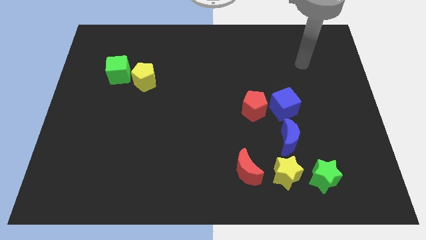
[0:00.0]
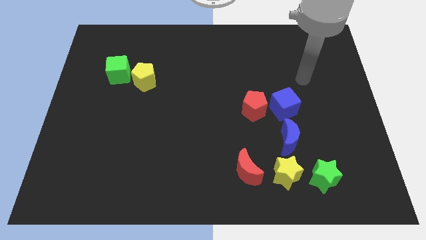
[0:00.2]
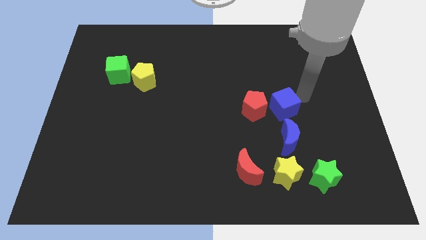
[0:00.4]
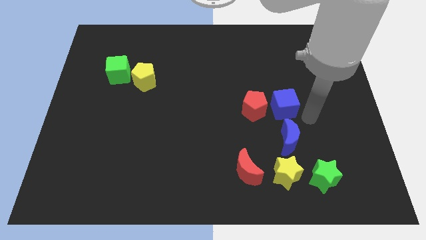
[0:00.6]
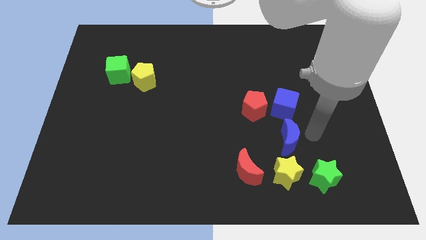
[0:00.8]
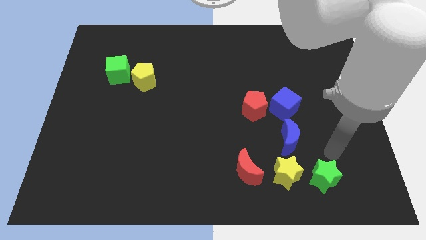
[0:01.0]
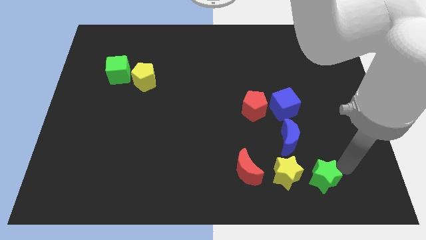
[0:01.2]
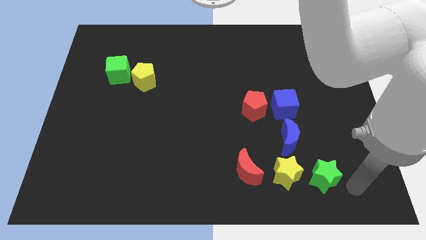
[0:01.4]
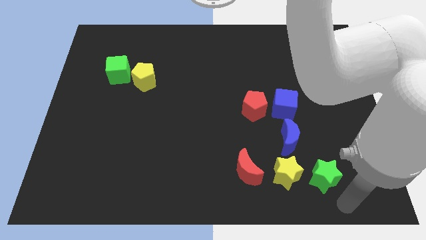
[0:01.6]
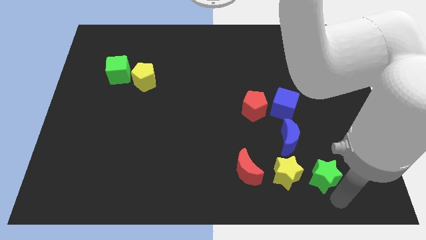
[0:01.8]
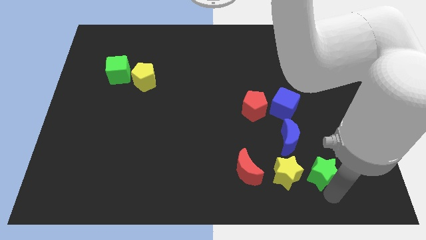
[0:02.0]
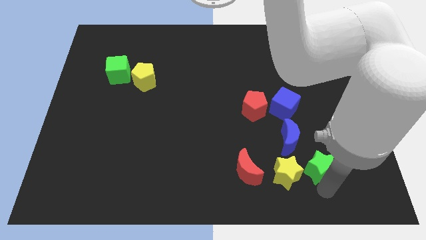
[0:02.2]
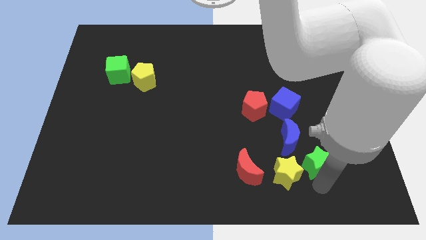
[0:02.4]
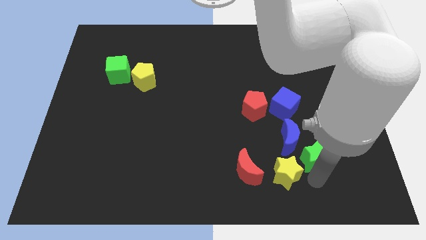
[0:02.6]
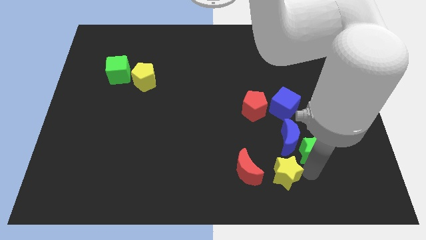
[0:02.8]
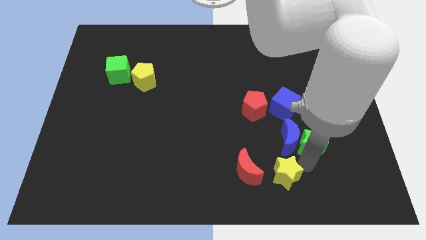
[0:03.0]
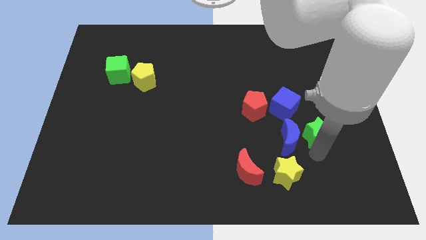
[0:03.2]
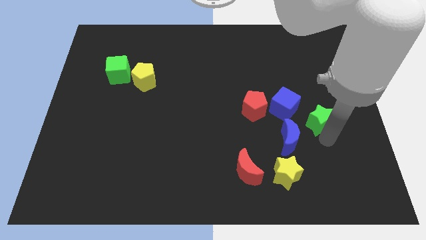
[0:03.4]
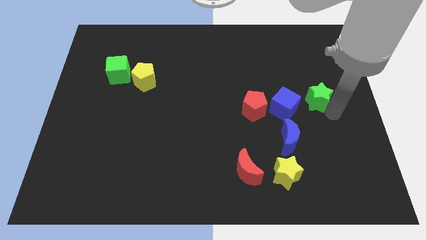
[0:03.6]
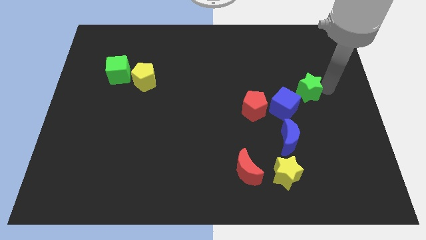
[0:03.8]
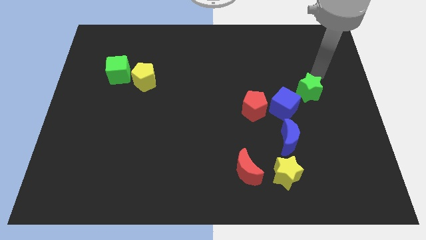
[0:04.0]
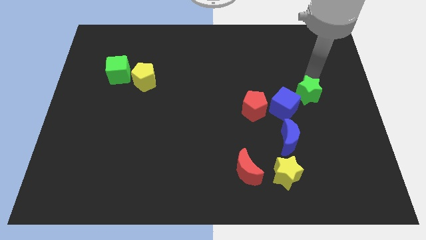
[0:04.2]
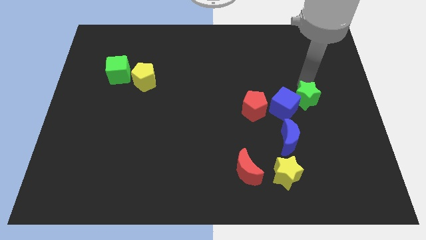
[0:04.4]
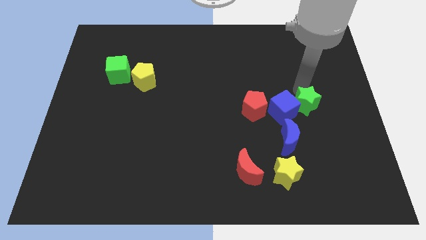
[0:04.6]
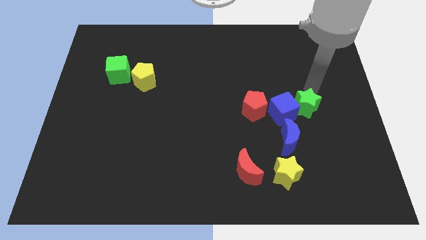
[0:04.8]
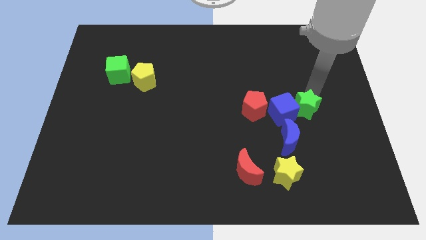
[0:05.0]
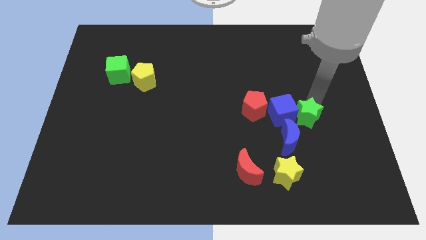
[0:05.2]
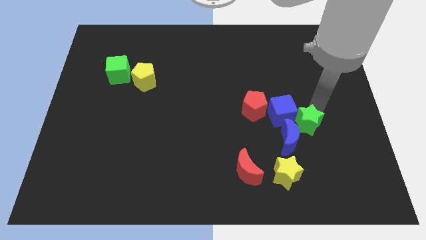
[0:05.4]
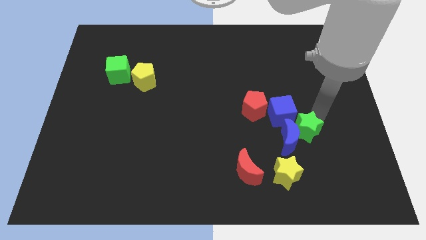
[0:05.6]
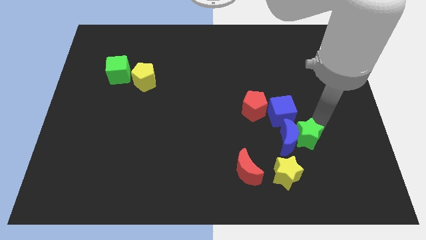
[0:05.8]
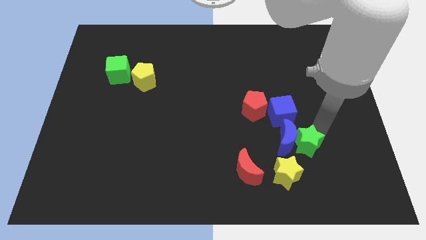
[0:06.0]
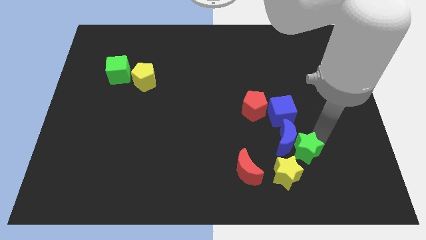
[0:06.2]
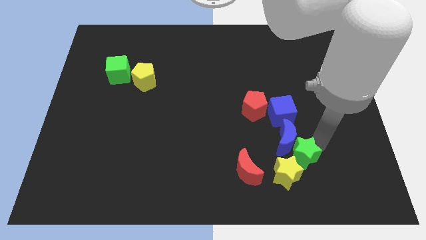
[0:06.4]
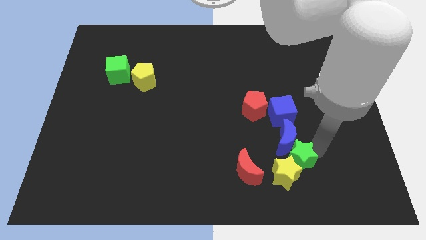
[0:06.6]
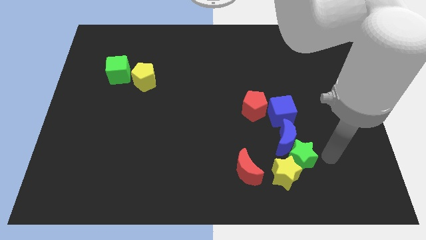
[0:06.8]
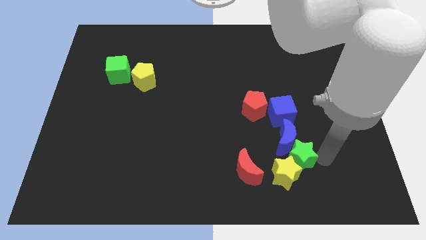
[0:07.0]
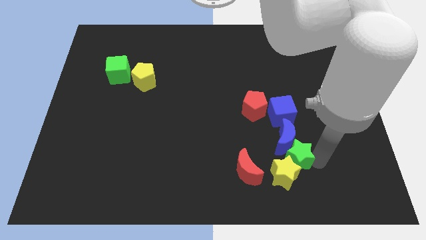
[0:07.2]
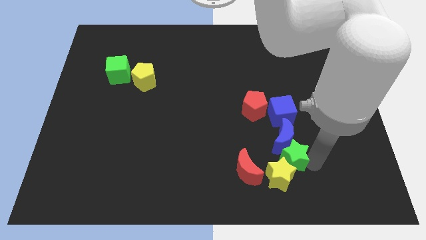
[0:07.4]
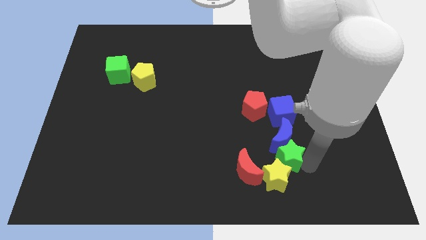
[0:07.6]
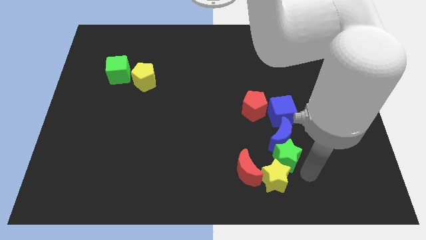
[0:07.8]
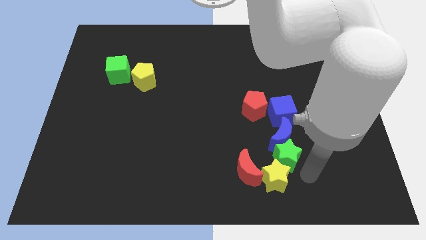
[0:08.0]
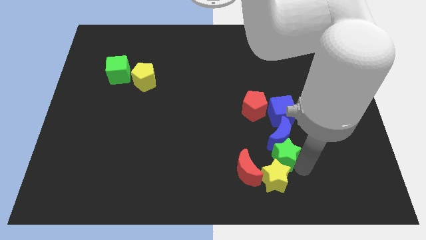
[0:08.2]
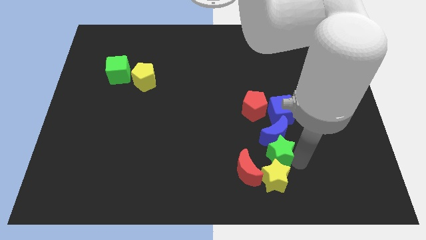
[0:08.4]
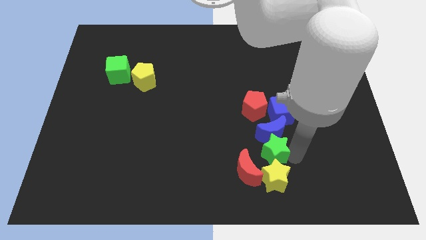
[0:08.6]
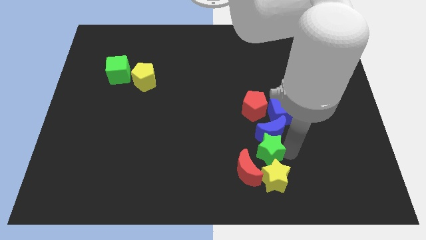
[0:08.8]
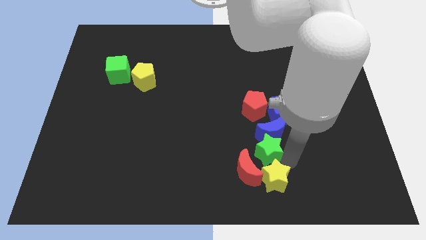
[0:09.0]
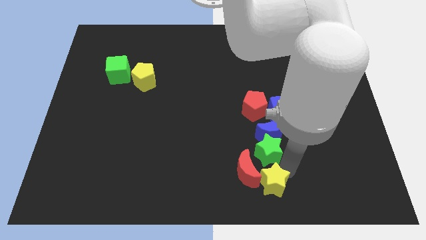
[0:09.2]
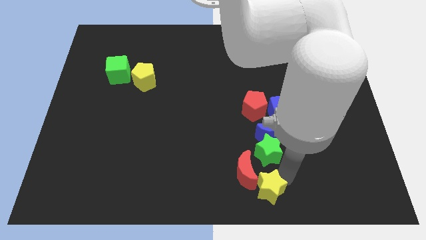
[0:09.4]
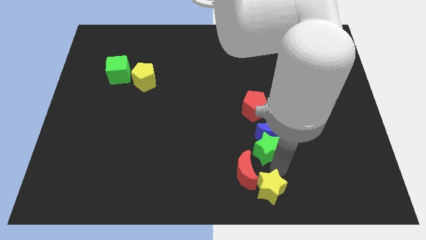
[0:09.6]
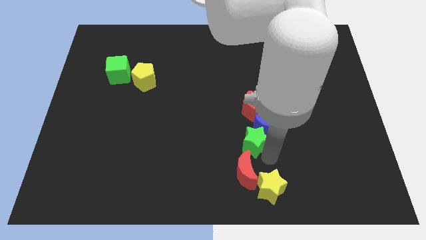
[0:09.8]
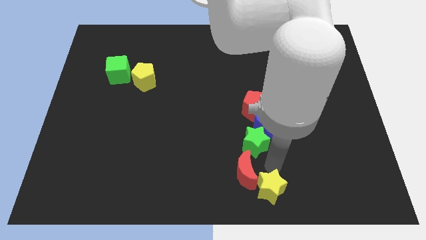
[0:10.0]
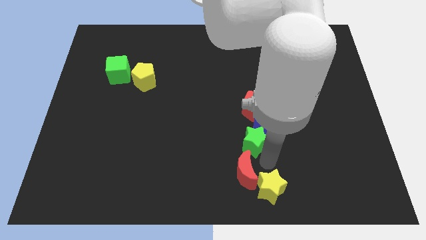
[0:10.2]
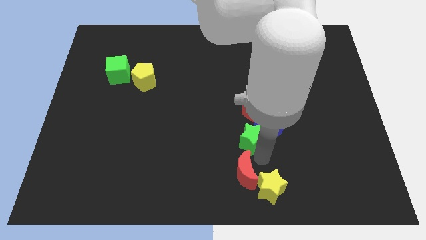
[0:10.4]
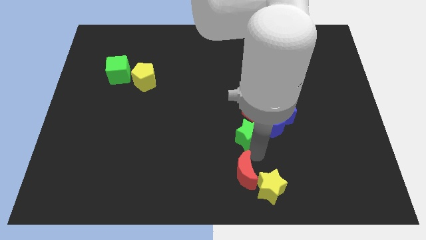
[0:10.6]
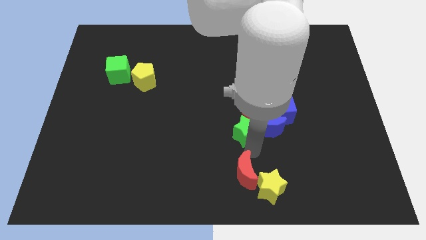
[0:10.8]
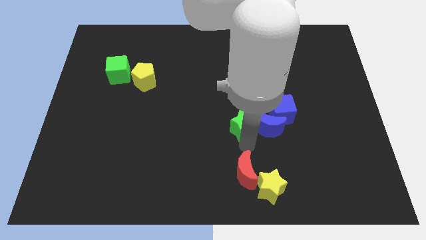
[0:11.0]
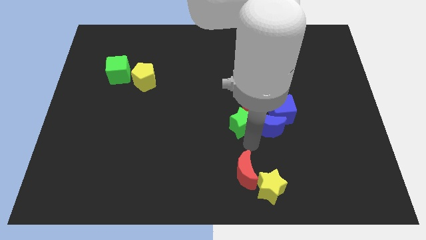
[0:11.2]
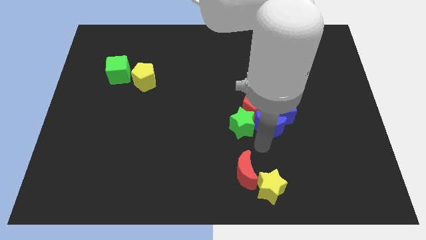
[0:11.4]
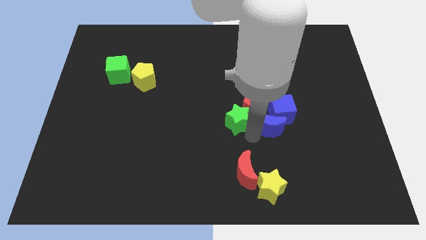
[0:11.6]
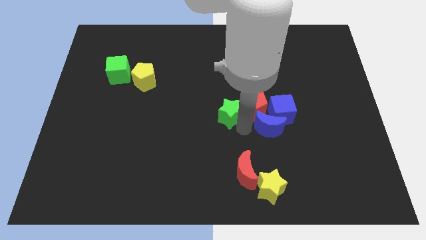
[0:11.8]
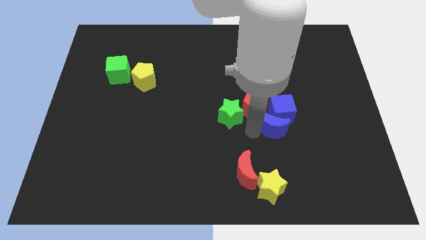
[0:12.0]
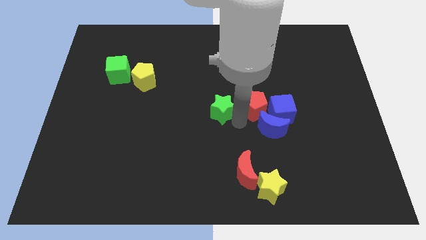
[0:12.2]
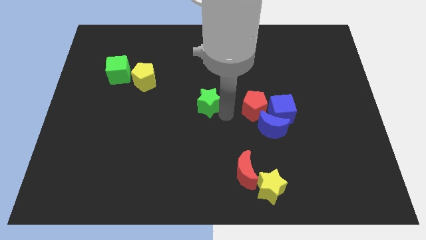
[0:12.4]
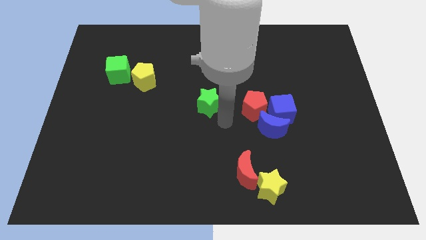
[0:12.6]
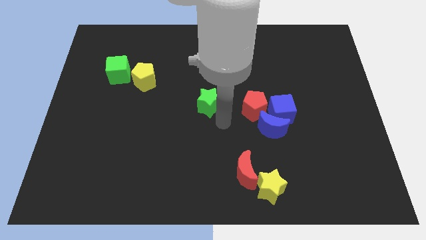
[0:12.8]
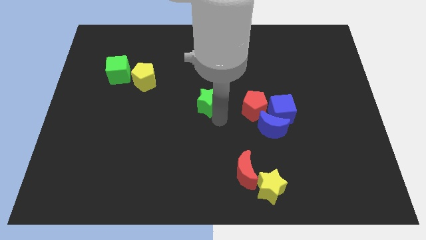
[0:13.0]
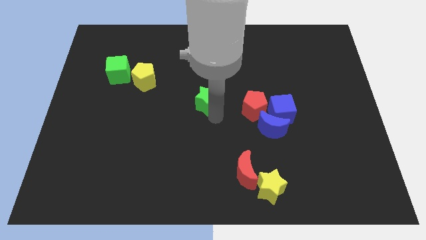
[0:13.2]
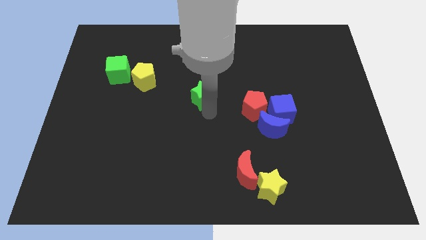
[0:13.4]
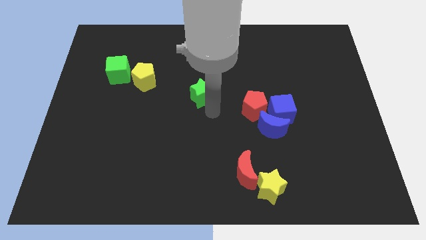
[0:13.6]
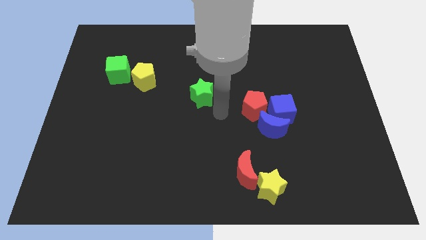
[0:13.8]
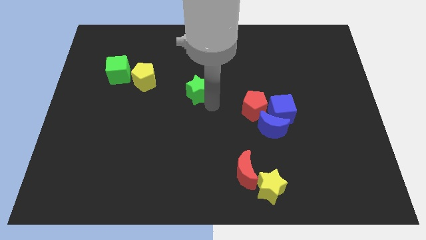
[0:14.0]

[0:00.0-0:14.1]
push the green star just right of the yellow pentagon

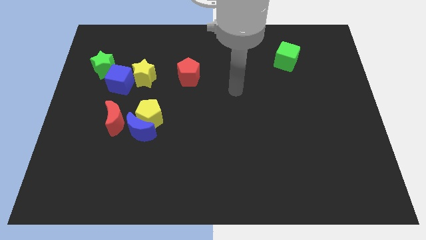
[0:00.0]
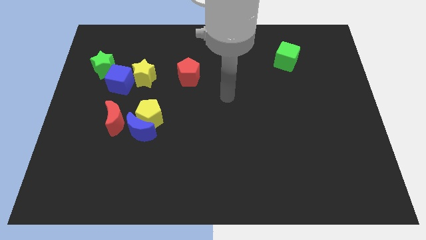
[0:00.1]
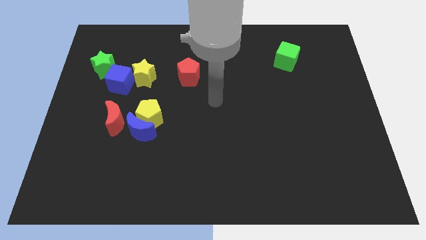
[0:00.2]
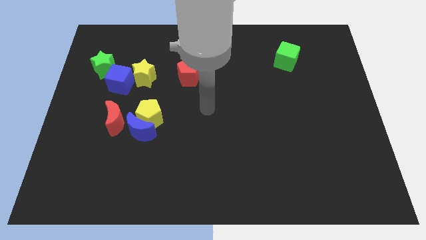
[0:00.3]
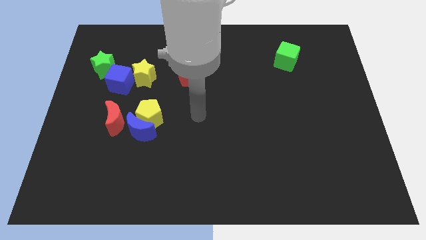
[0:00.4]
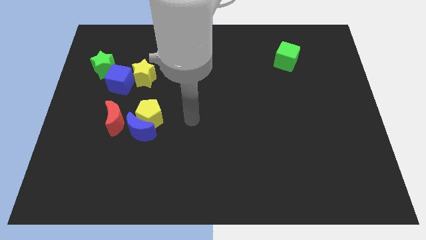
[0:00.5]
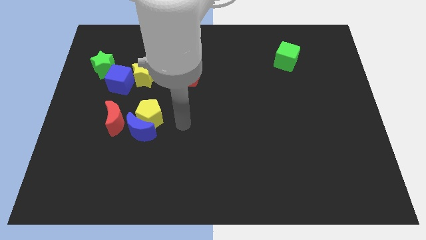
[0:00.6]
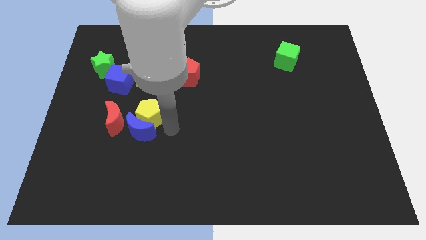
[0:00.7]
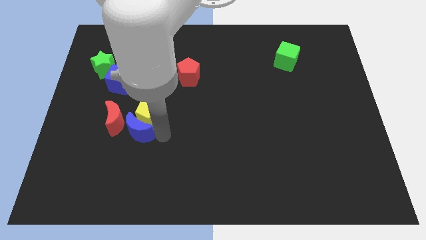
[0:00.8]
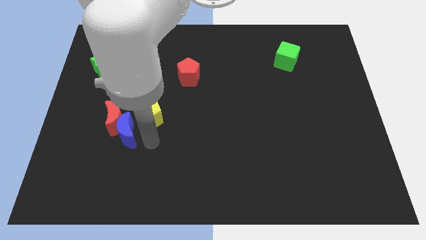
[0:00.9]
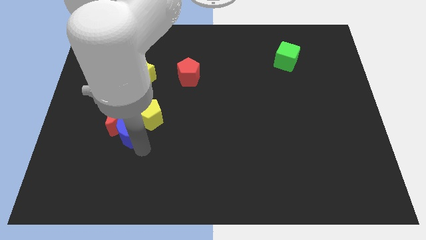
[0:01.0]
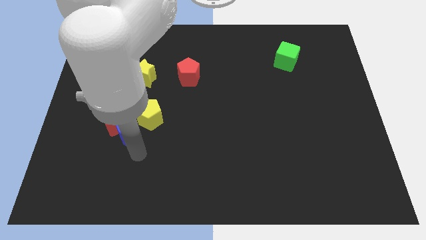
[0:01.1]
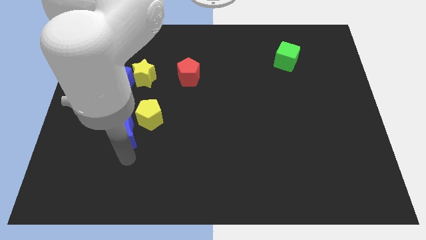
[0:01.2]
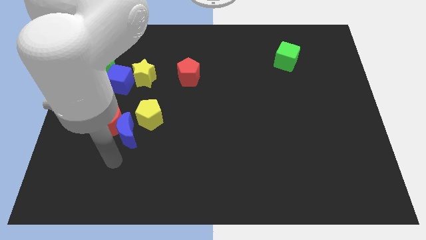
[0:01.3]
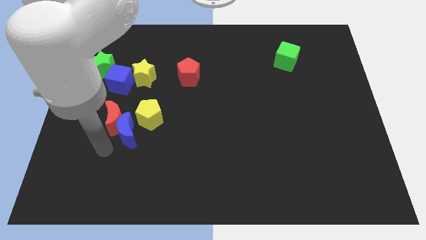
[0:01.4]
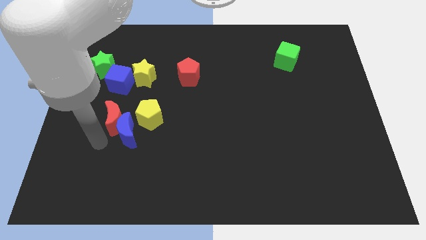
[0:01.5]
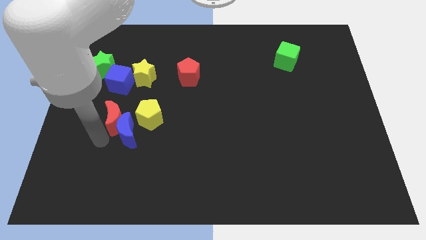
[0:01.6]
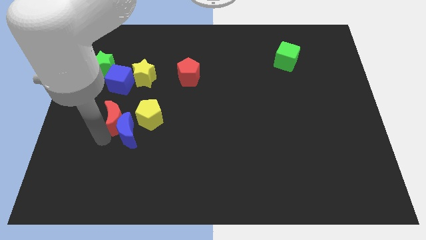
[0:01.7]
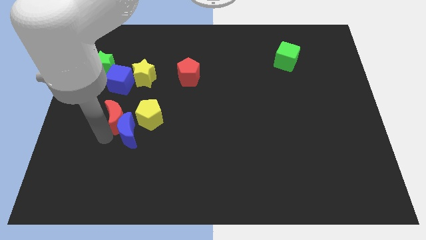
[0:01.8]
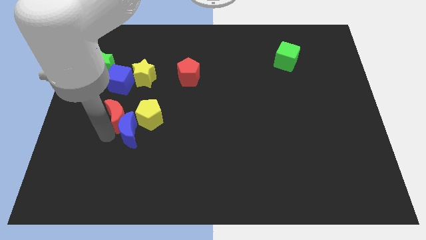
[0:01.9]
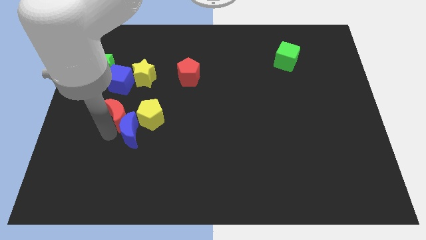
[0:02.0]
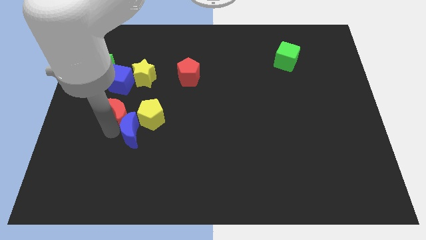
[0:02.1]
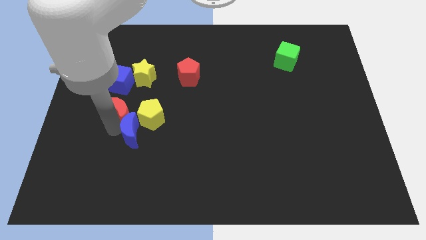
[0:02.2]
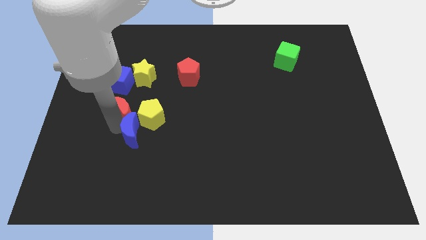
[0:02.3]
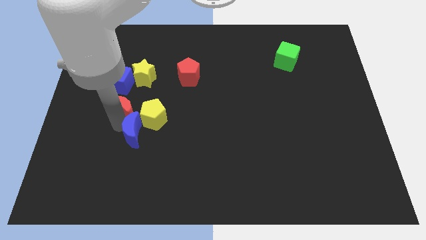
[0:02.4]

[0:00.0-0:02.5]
push the red moon to the bottom right of the blue cube
